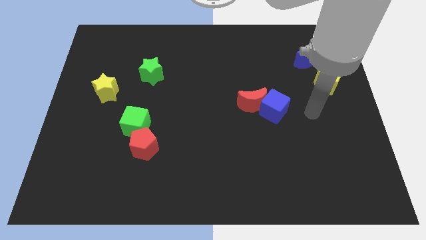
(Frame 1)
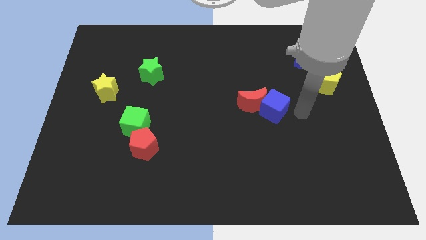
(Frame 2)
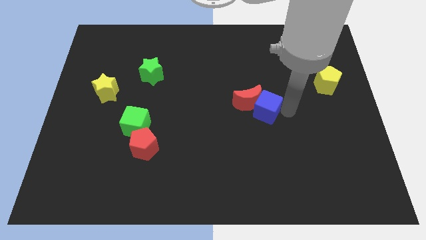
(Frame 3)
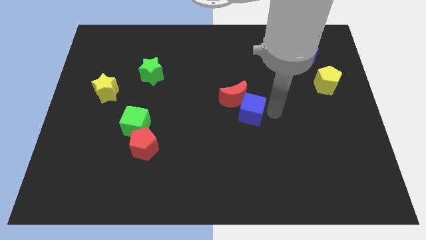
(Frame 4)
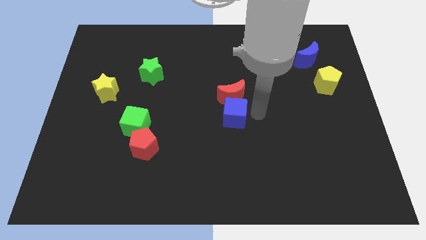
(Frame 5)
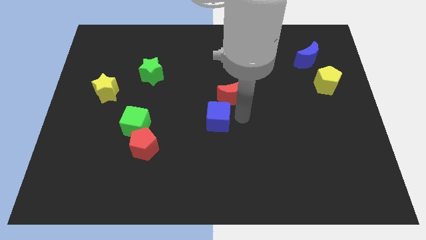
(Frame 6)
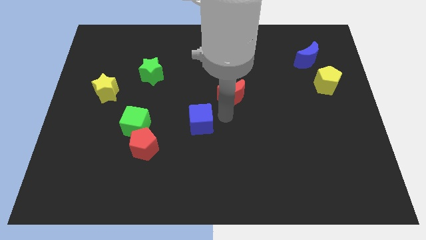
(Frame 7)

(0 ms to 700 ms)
separate the red moon from the blue cube

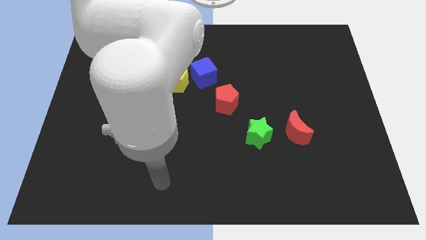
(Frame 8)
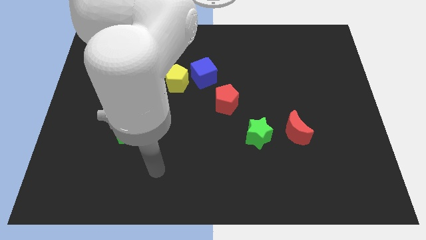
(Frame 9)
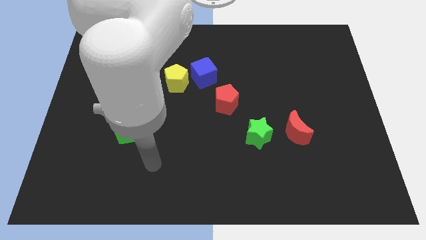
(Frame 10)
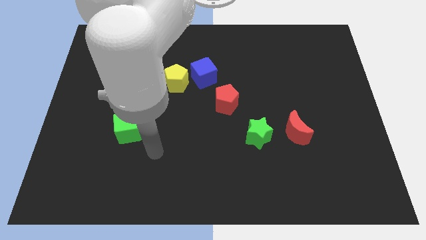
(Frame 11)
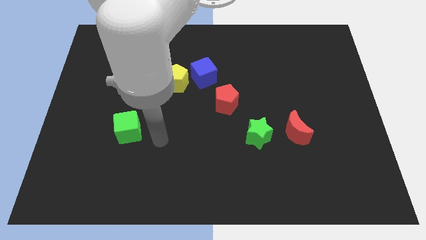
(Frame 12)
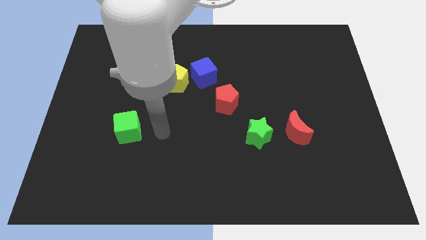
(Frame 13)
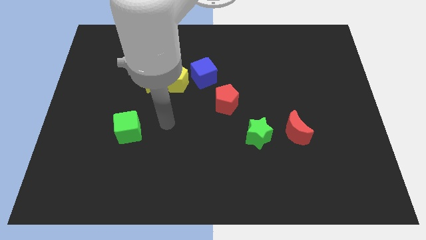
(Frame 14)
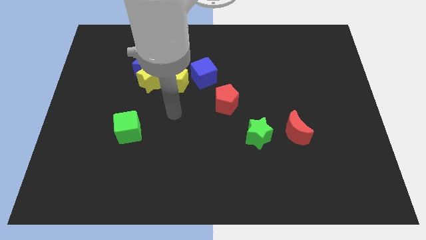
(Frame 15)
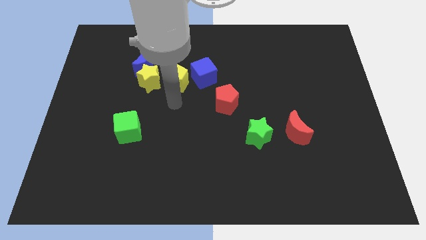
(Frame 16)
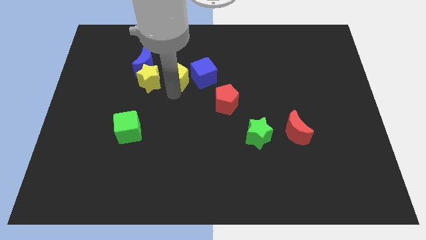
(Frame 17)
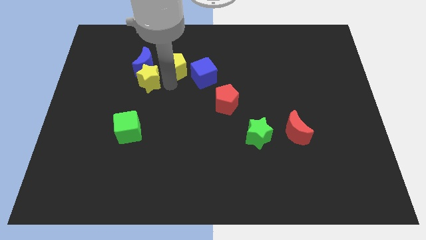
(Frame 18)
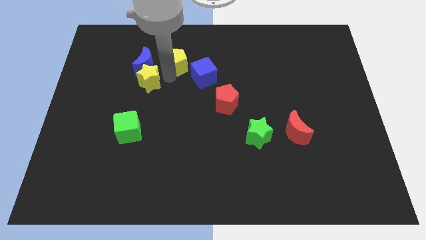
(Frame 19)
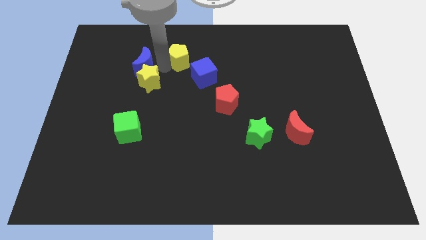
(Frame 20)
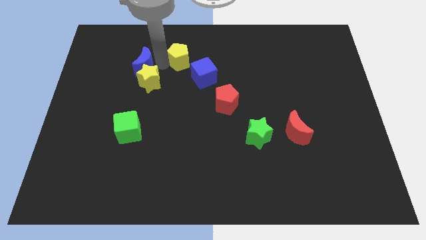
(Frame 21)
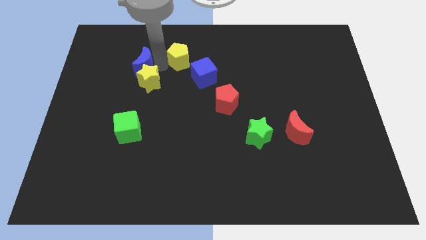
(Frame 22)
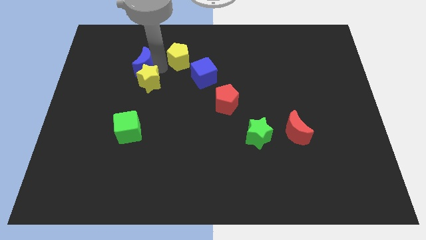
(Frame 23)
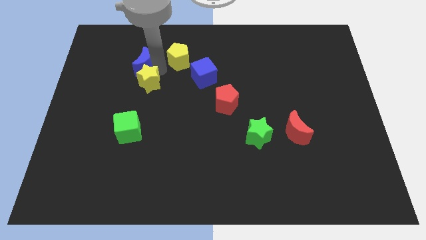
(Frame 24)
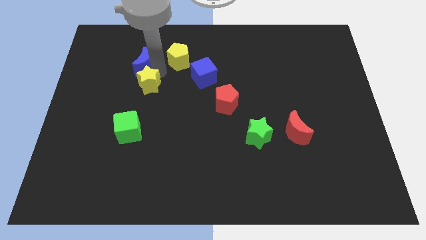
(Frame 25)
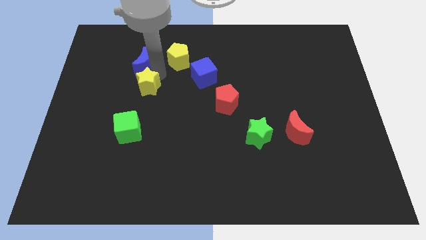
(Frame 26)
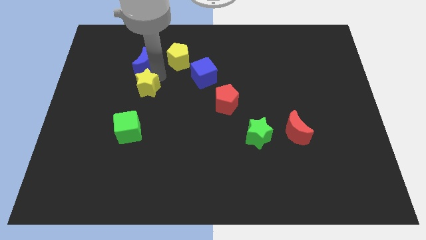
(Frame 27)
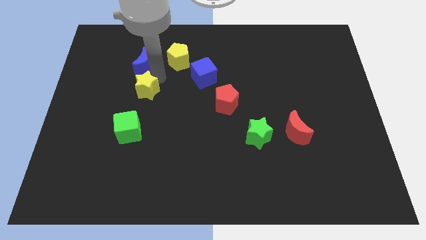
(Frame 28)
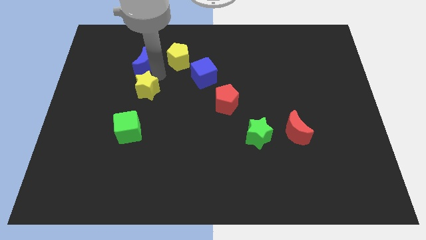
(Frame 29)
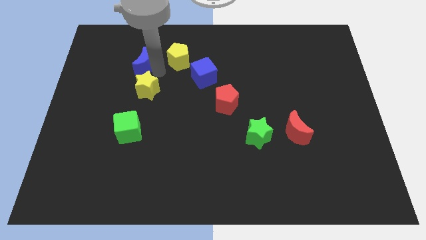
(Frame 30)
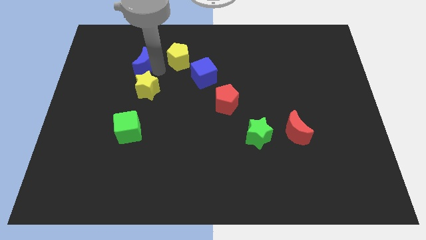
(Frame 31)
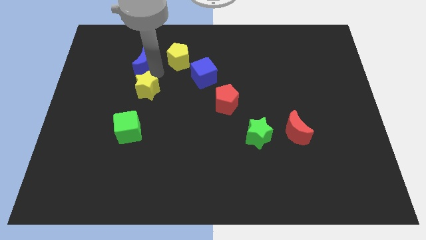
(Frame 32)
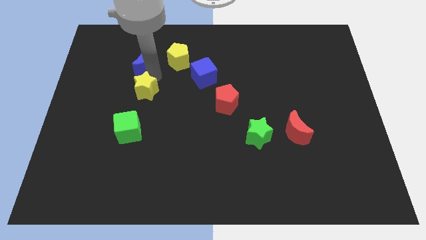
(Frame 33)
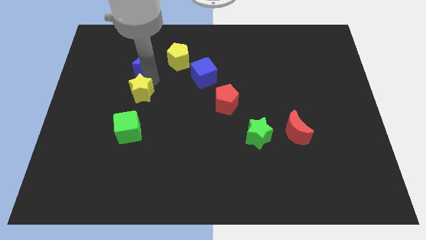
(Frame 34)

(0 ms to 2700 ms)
separate the yellow star from the blue moon and yellow pentagon

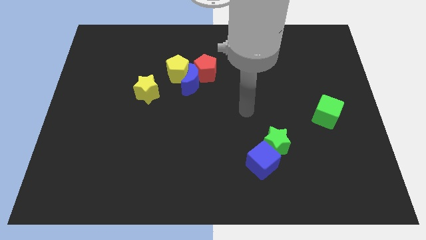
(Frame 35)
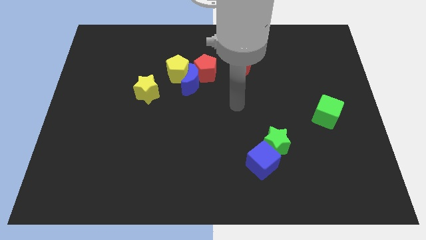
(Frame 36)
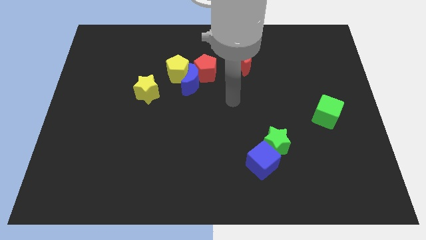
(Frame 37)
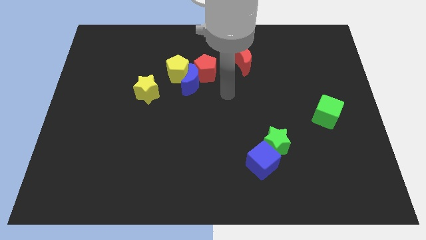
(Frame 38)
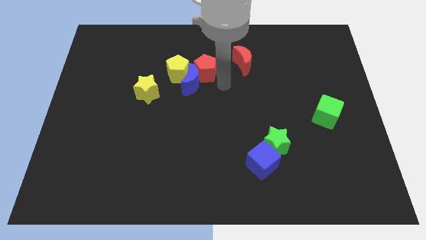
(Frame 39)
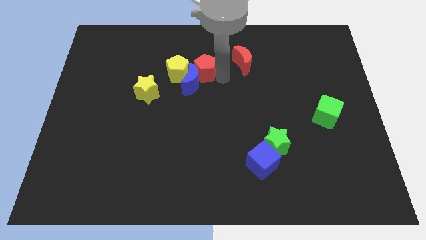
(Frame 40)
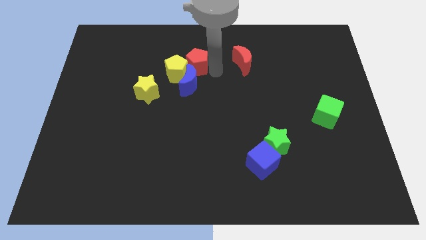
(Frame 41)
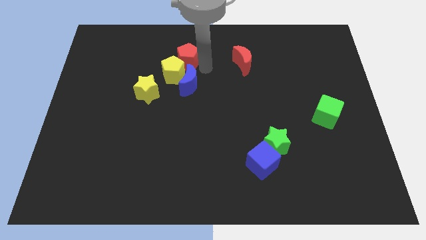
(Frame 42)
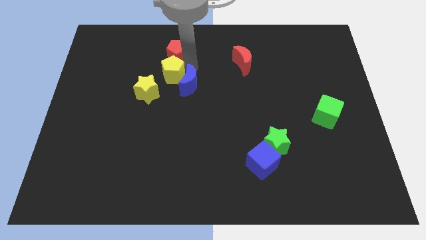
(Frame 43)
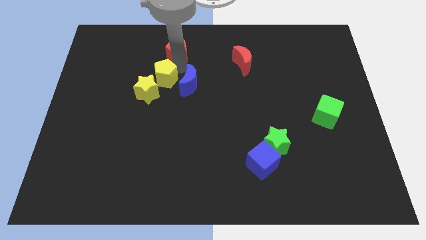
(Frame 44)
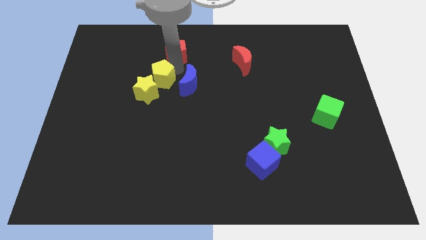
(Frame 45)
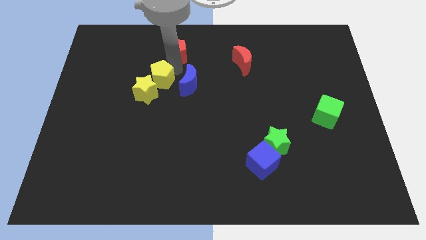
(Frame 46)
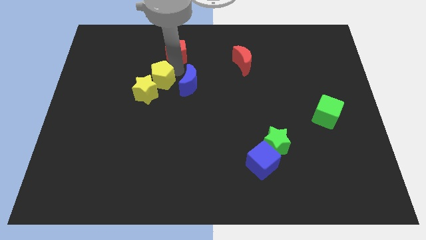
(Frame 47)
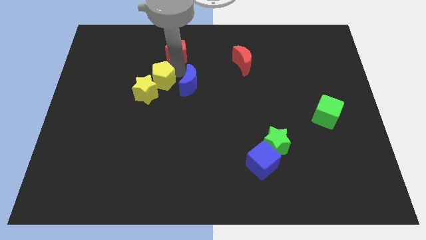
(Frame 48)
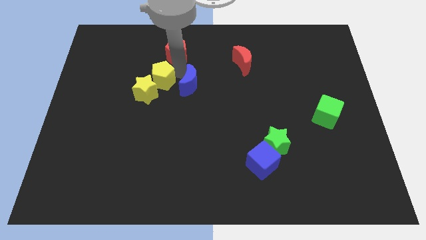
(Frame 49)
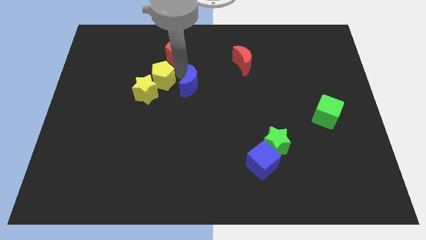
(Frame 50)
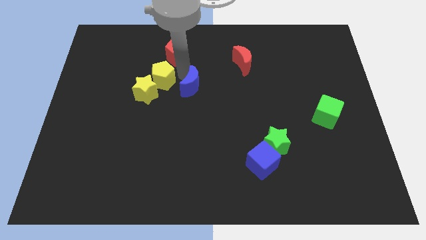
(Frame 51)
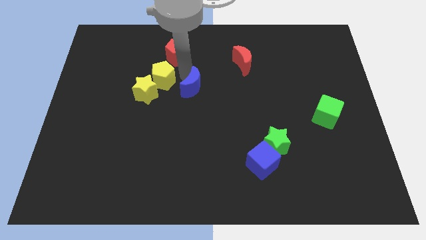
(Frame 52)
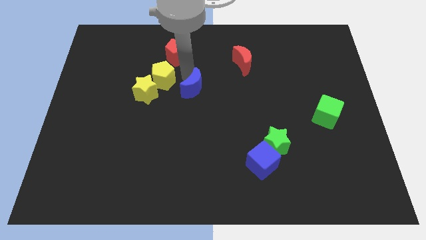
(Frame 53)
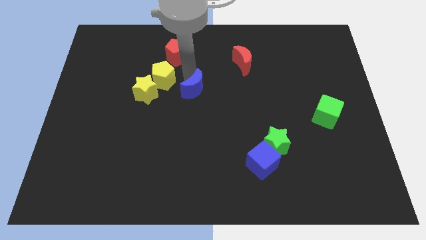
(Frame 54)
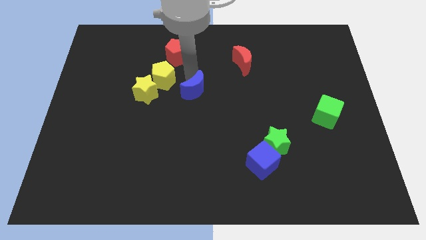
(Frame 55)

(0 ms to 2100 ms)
separate the blue moon from the yellow pentagon and red pentagon

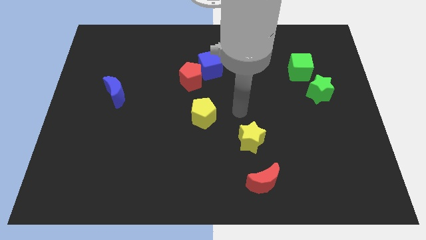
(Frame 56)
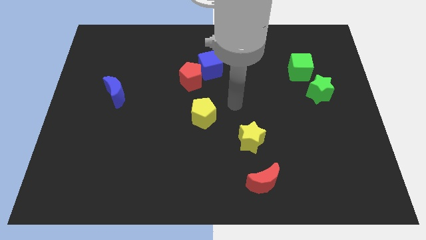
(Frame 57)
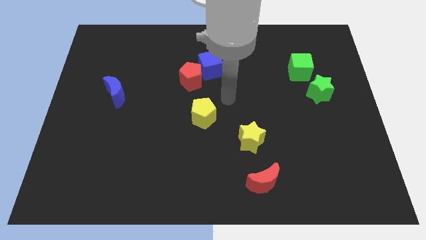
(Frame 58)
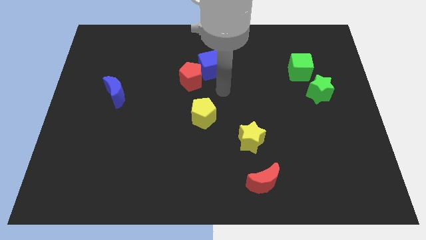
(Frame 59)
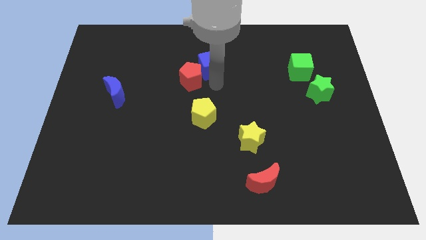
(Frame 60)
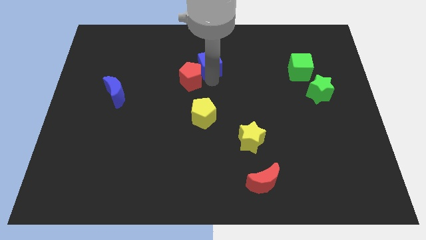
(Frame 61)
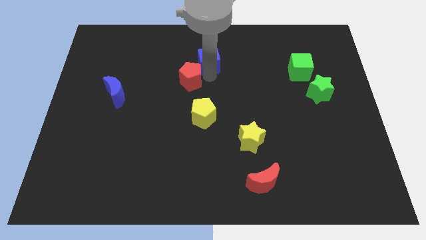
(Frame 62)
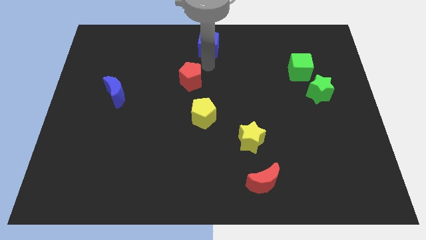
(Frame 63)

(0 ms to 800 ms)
move the red pentagon away from the blue cube

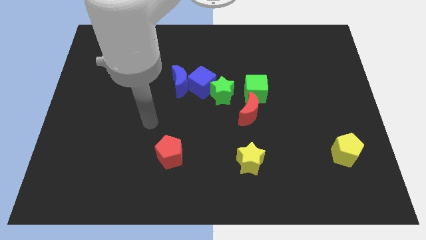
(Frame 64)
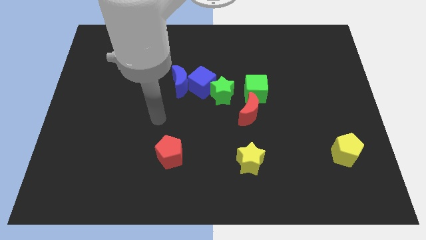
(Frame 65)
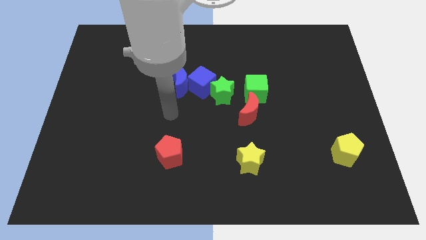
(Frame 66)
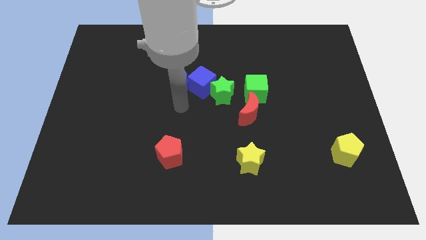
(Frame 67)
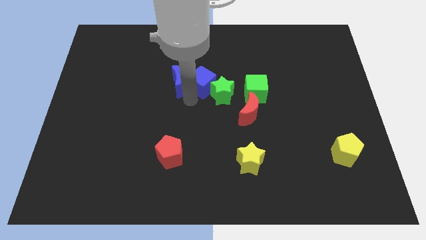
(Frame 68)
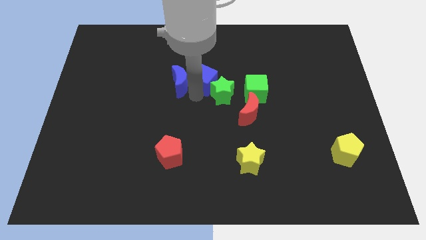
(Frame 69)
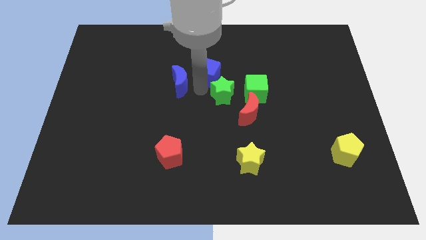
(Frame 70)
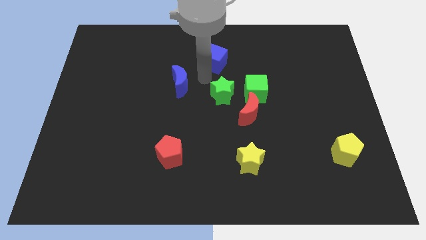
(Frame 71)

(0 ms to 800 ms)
move the blue moon away from the blue cube

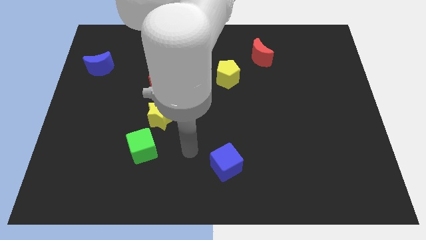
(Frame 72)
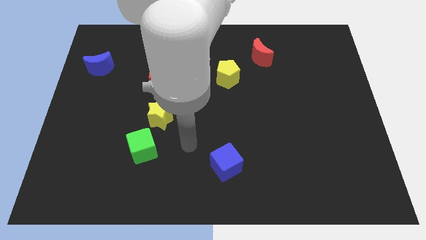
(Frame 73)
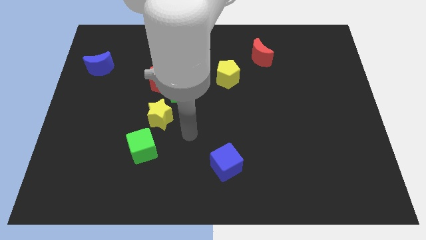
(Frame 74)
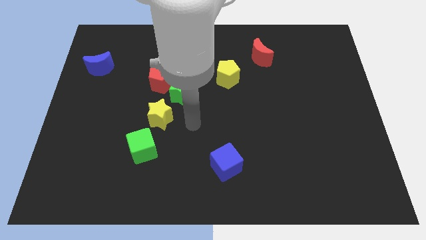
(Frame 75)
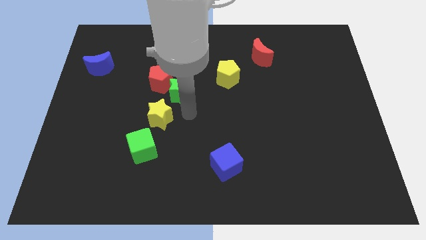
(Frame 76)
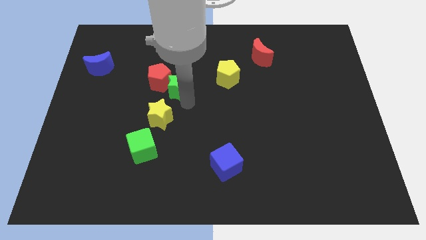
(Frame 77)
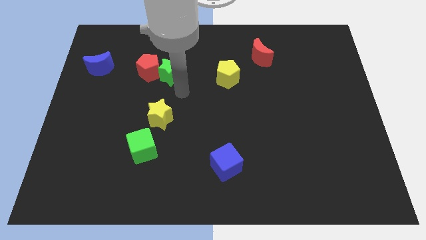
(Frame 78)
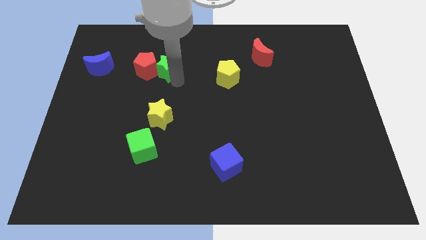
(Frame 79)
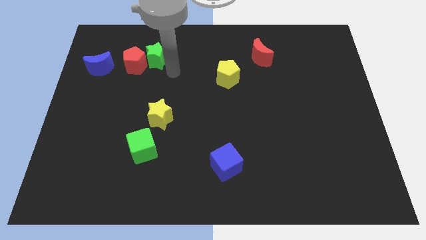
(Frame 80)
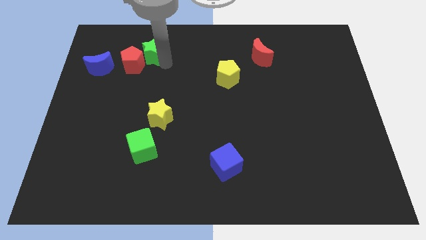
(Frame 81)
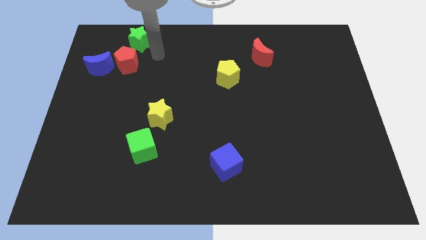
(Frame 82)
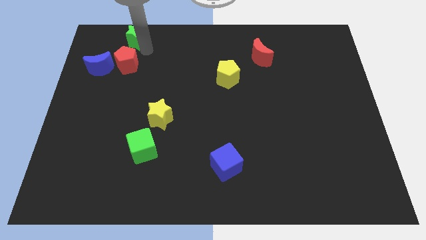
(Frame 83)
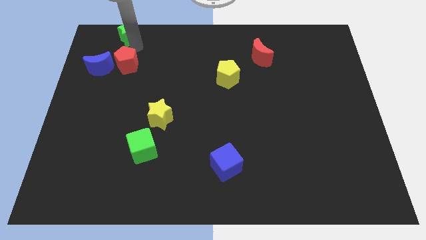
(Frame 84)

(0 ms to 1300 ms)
pull the red pentagon apart from the green star

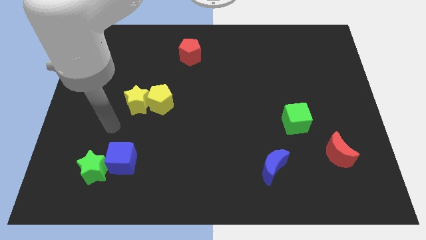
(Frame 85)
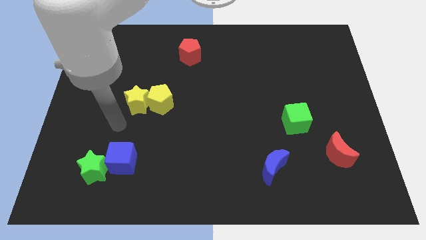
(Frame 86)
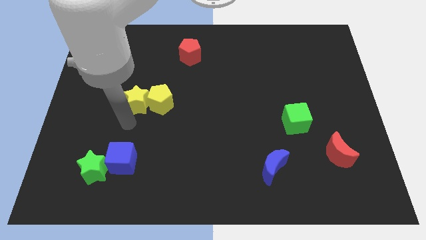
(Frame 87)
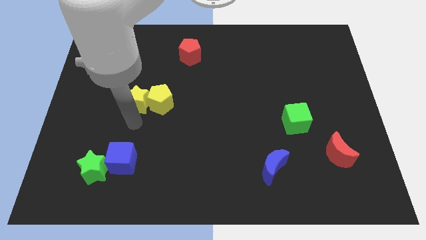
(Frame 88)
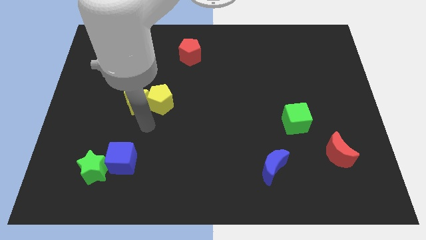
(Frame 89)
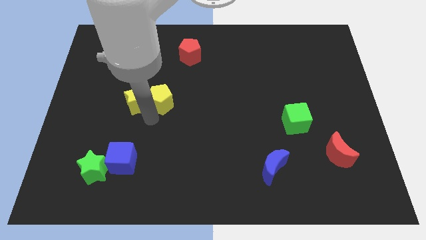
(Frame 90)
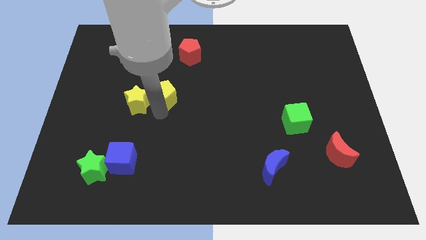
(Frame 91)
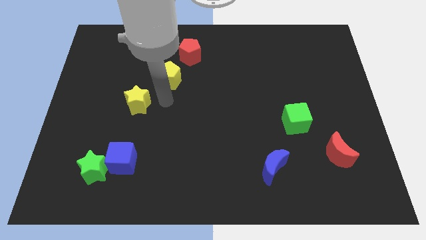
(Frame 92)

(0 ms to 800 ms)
pull the yellow star apart from the yellow pentagon

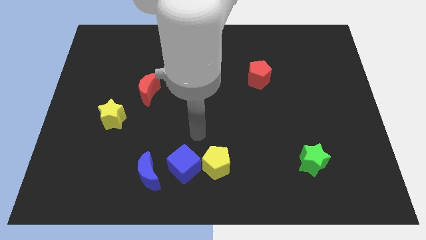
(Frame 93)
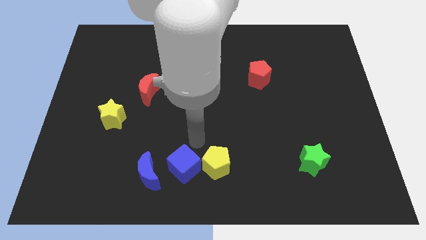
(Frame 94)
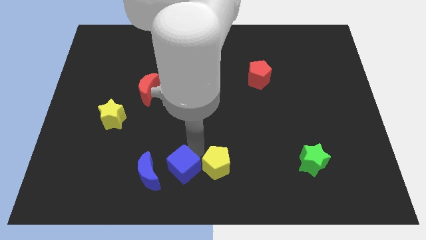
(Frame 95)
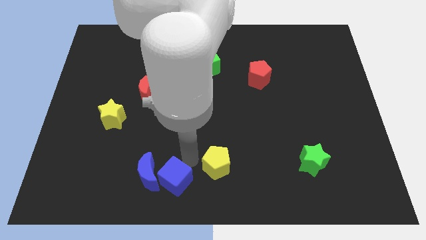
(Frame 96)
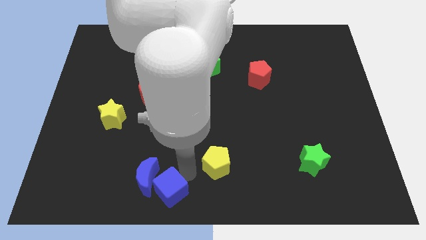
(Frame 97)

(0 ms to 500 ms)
move the yellow pentagon away from the blue cube
